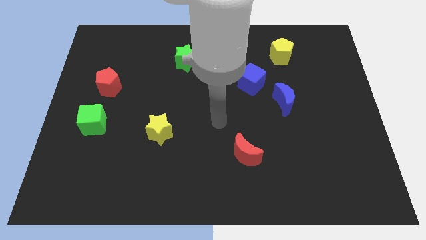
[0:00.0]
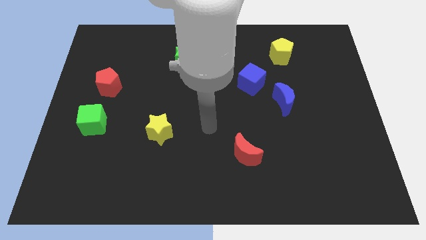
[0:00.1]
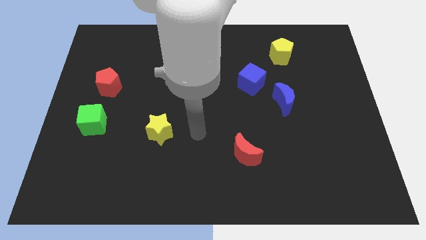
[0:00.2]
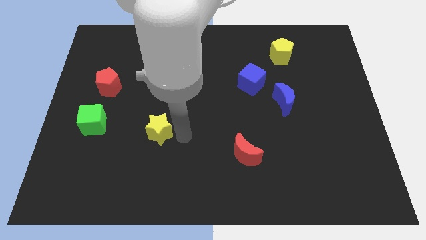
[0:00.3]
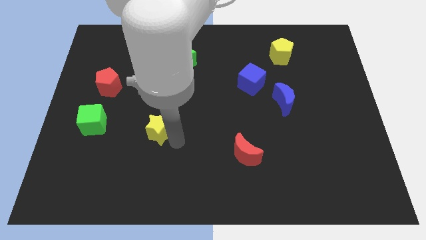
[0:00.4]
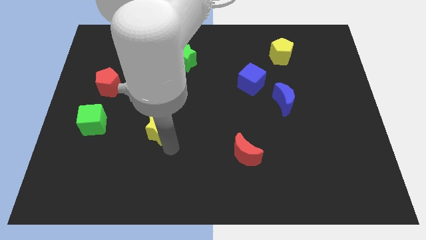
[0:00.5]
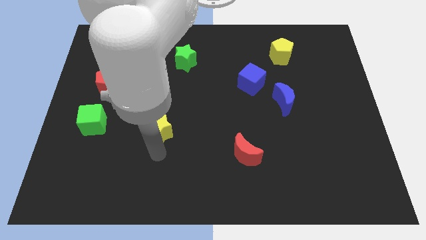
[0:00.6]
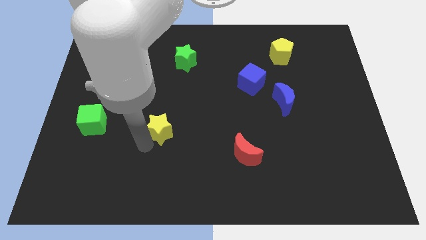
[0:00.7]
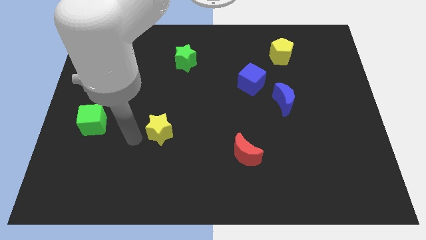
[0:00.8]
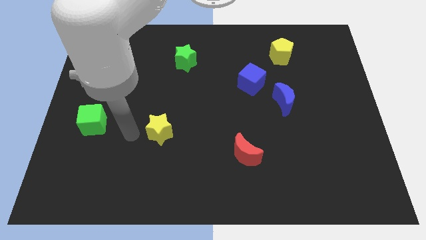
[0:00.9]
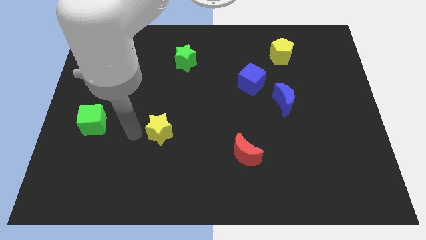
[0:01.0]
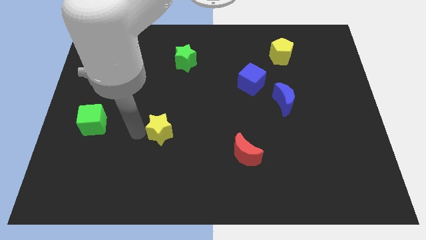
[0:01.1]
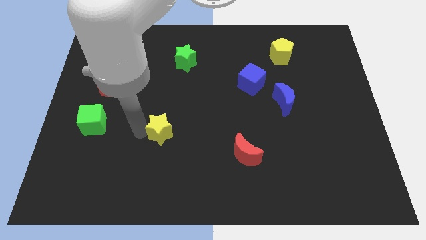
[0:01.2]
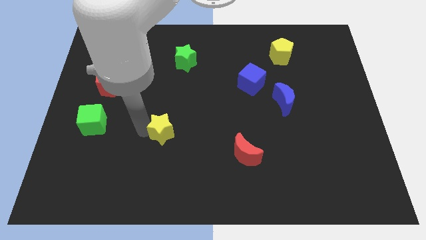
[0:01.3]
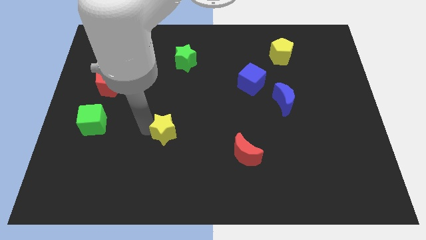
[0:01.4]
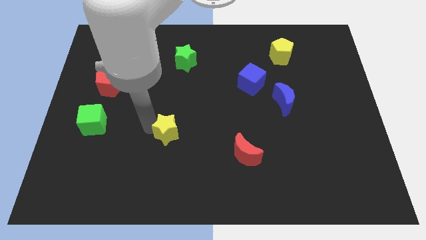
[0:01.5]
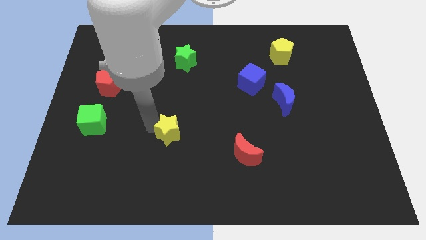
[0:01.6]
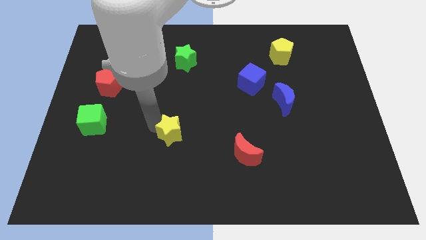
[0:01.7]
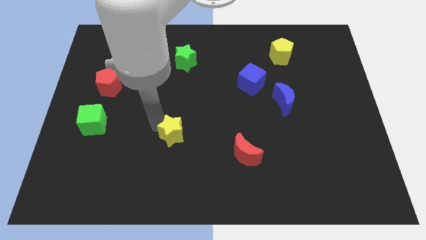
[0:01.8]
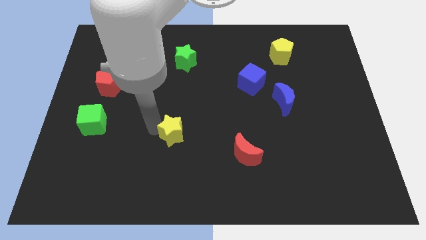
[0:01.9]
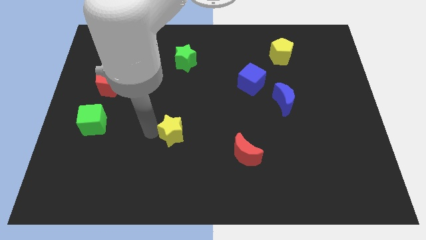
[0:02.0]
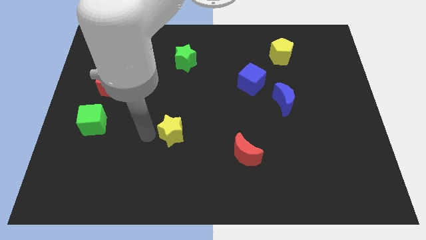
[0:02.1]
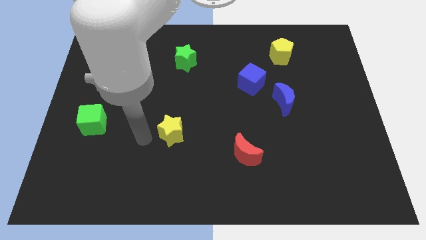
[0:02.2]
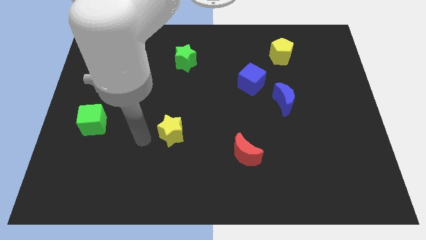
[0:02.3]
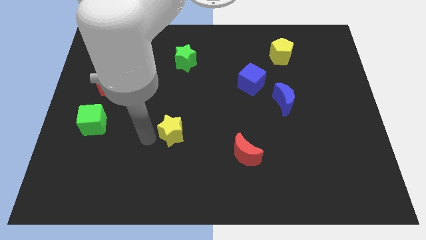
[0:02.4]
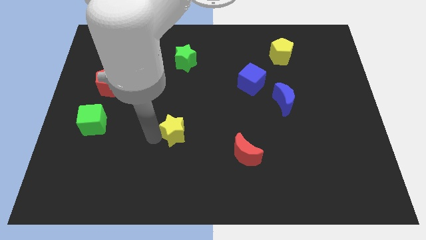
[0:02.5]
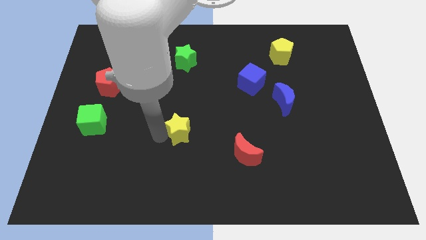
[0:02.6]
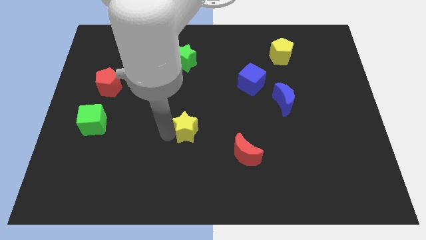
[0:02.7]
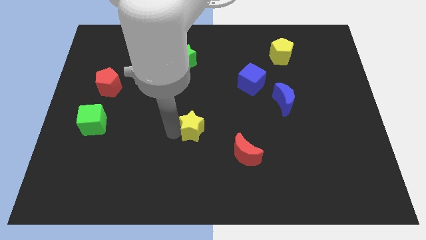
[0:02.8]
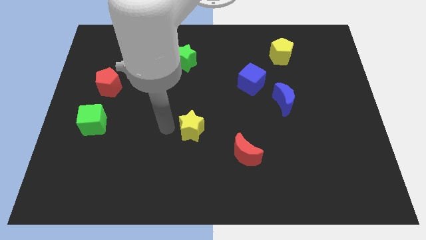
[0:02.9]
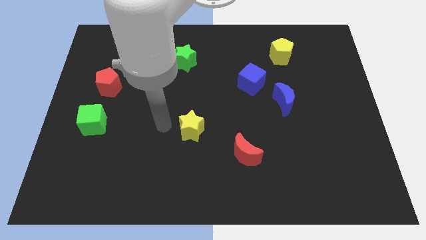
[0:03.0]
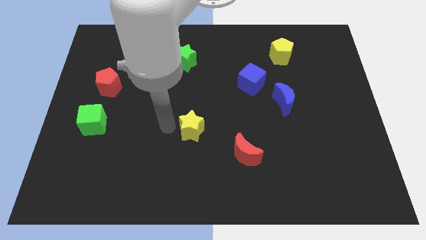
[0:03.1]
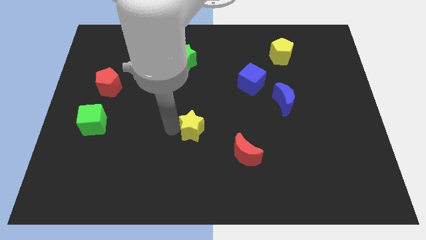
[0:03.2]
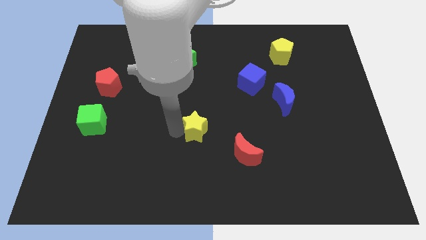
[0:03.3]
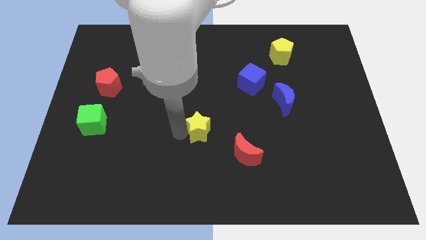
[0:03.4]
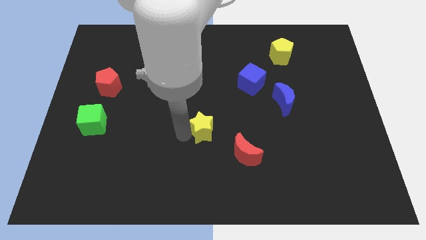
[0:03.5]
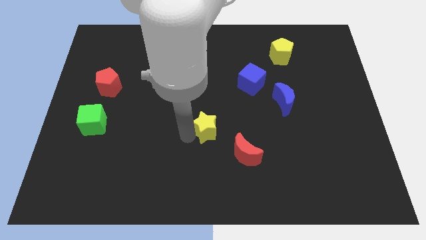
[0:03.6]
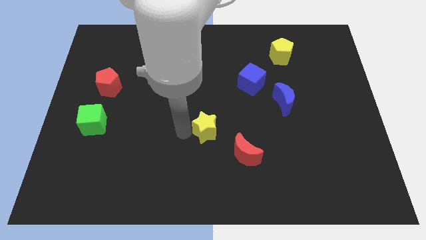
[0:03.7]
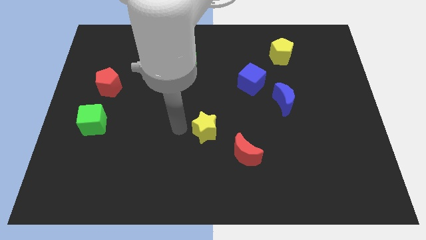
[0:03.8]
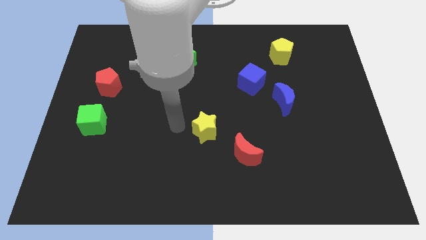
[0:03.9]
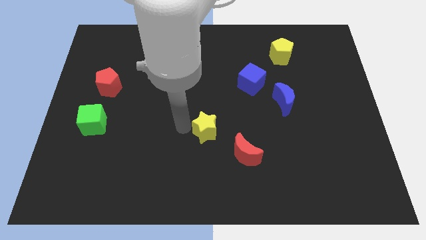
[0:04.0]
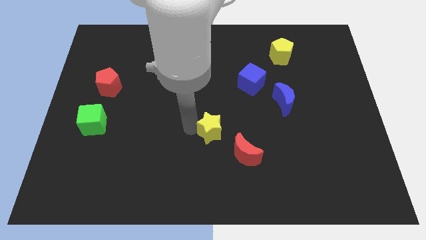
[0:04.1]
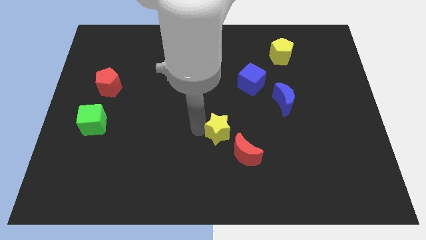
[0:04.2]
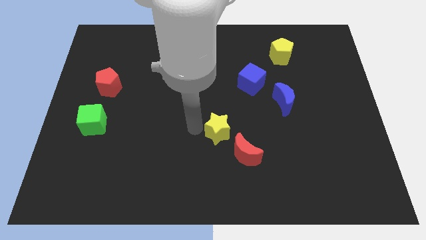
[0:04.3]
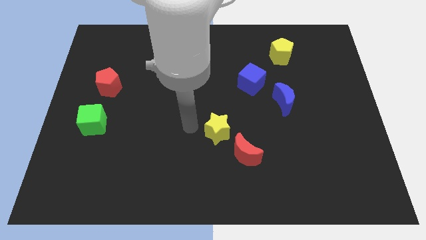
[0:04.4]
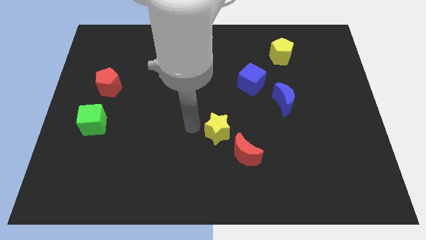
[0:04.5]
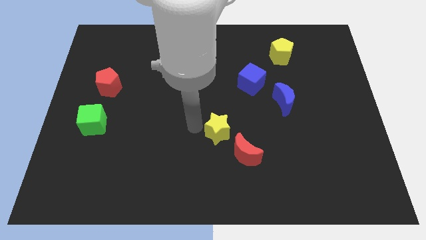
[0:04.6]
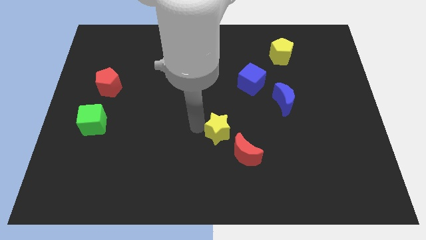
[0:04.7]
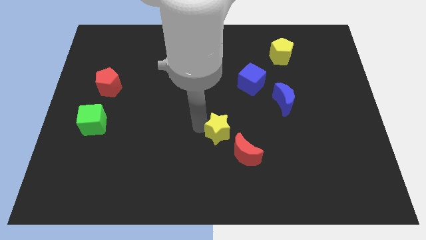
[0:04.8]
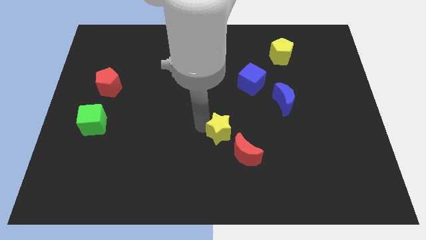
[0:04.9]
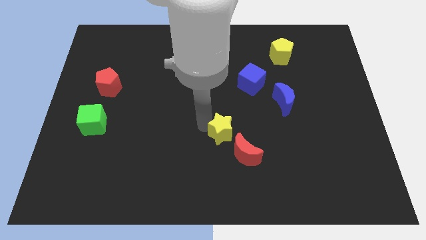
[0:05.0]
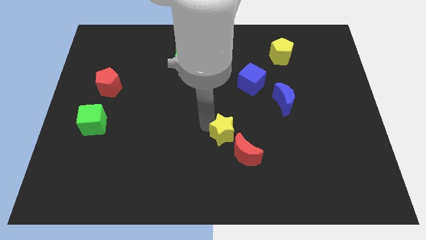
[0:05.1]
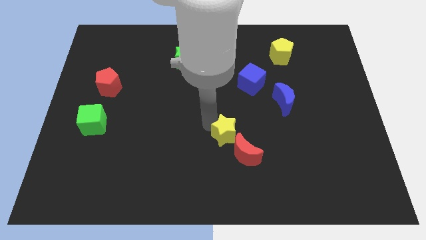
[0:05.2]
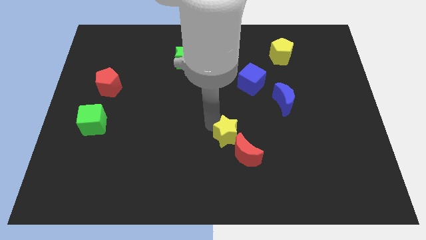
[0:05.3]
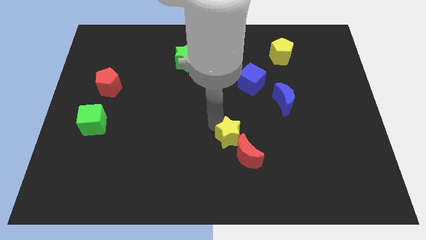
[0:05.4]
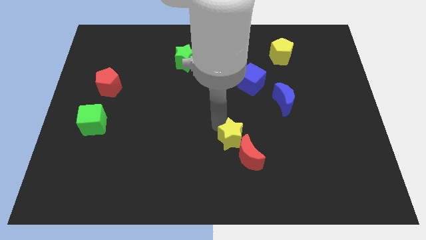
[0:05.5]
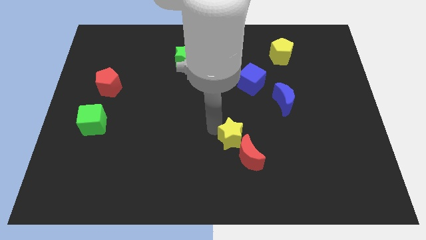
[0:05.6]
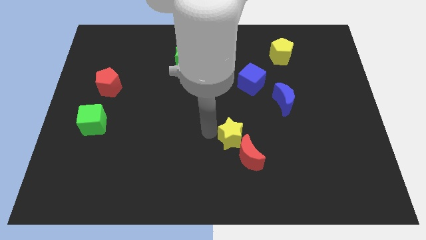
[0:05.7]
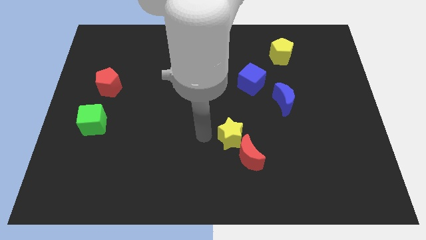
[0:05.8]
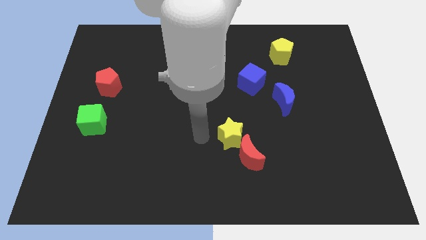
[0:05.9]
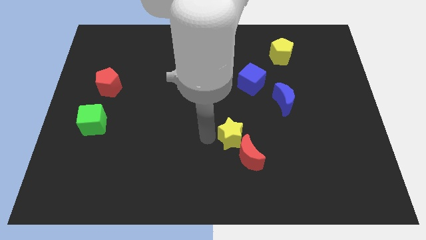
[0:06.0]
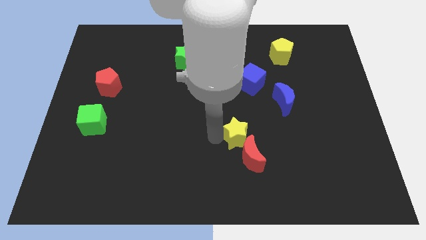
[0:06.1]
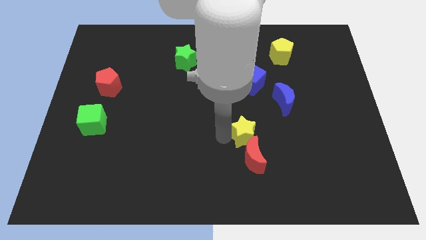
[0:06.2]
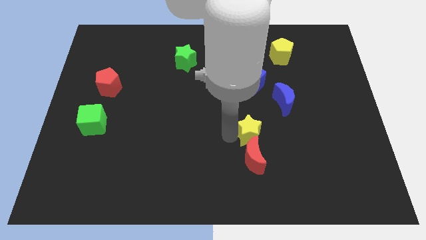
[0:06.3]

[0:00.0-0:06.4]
push the yellow star to the right

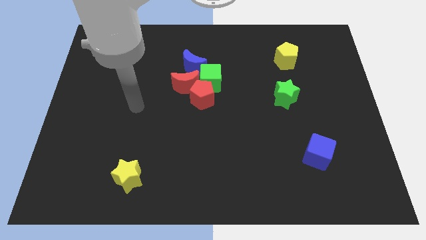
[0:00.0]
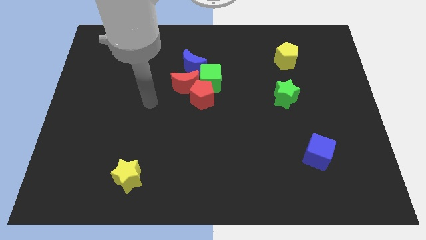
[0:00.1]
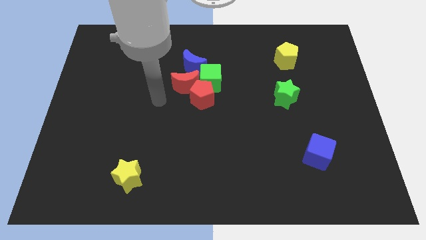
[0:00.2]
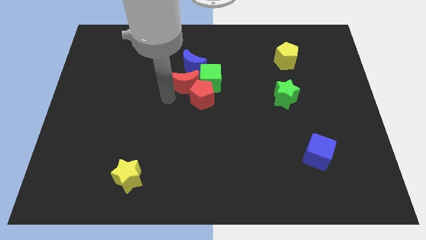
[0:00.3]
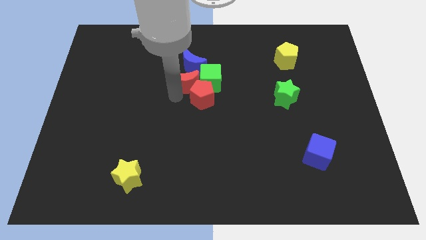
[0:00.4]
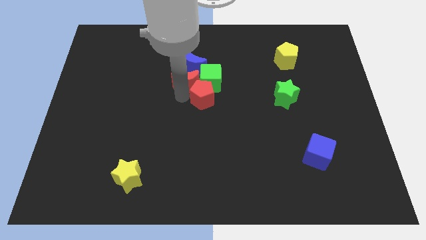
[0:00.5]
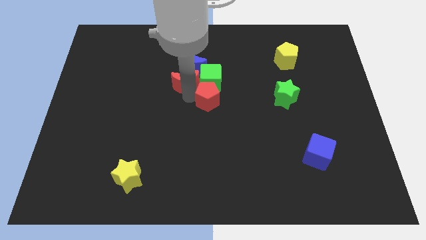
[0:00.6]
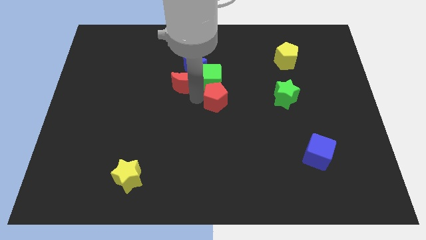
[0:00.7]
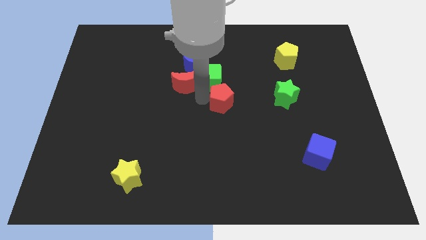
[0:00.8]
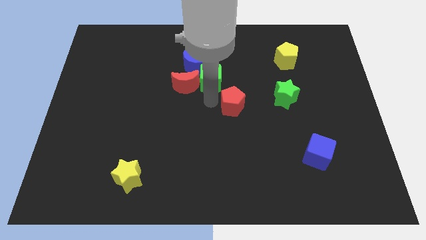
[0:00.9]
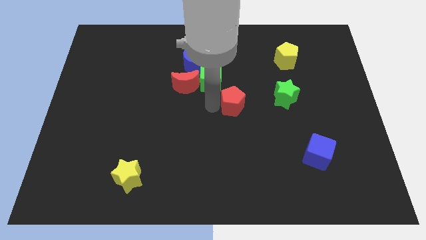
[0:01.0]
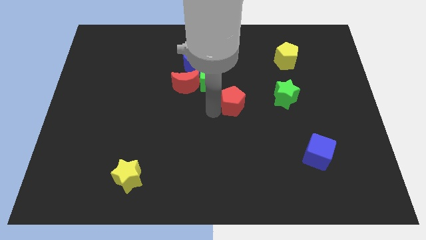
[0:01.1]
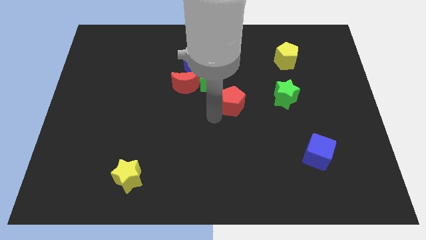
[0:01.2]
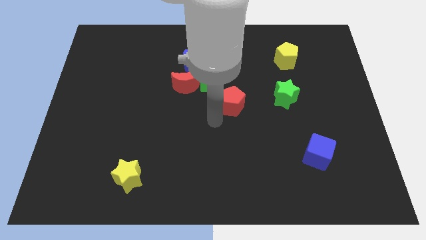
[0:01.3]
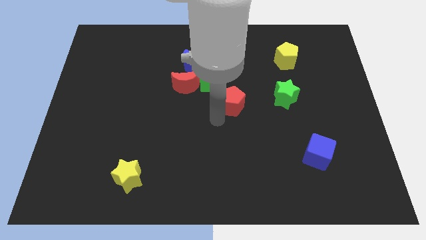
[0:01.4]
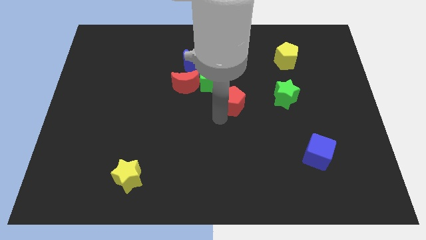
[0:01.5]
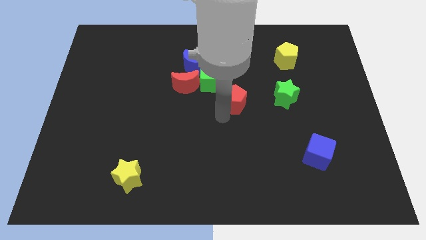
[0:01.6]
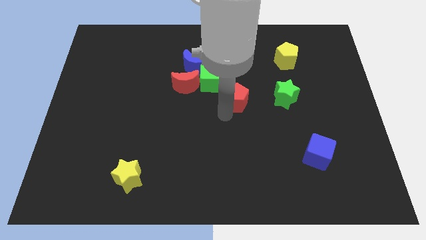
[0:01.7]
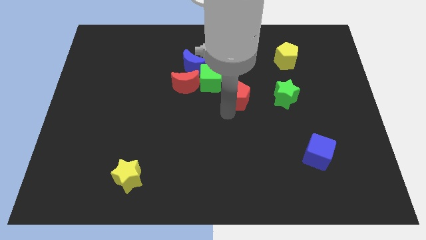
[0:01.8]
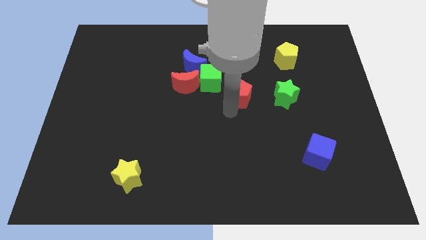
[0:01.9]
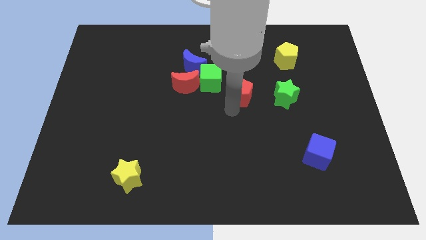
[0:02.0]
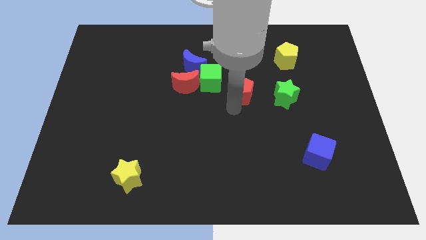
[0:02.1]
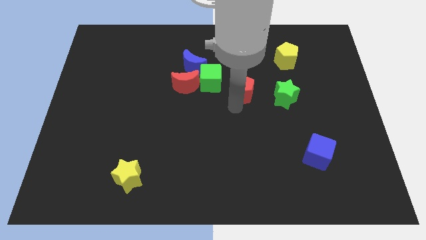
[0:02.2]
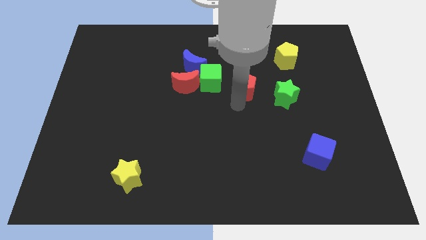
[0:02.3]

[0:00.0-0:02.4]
move the red pentagon up and then to the right somewhat
